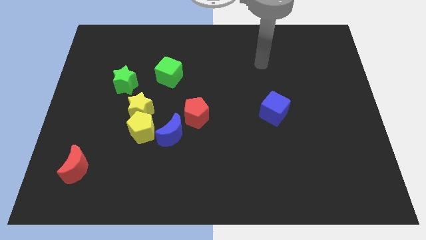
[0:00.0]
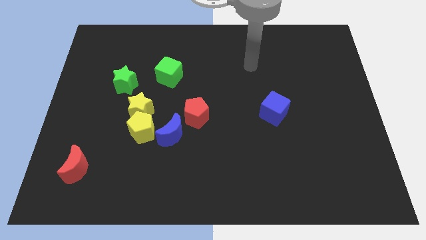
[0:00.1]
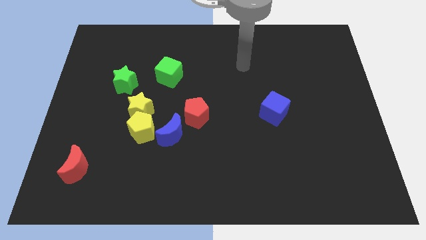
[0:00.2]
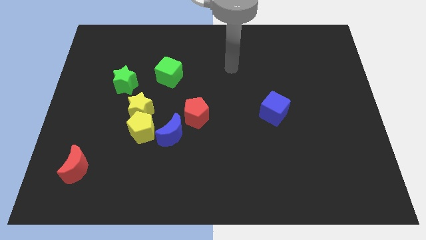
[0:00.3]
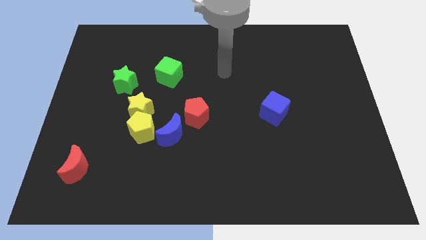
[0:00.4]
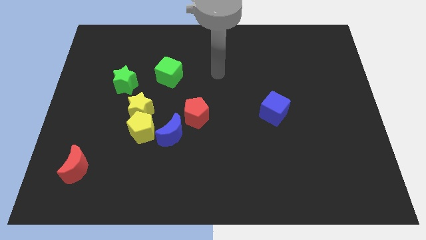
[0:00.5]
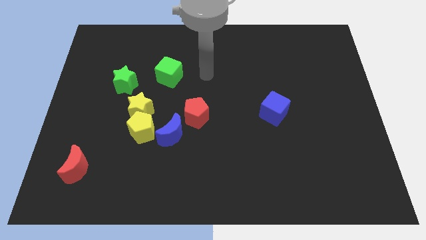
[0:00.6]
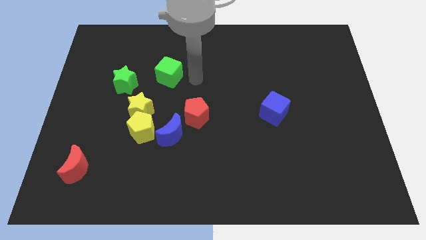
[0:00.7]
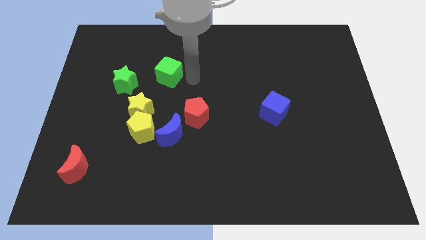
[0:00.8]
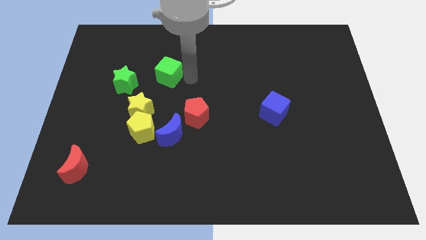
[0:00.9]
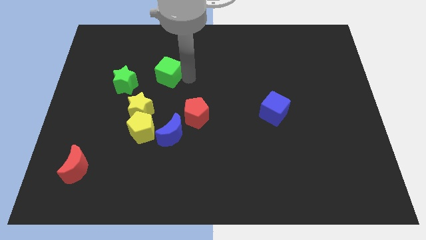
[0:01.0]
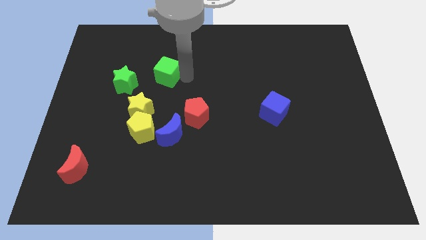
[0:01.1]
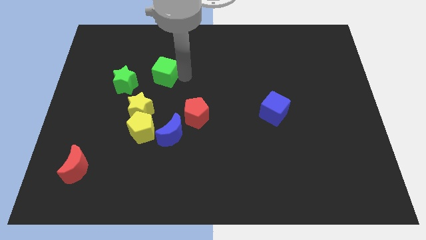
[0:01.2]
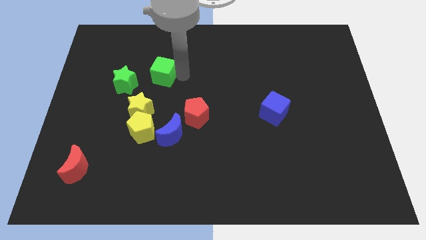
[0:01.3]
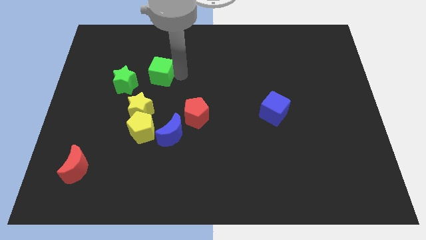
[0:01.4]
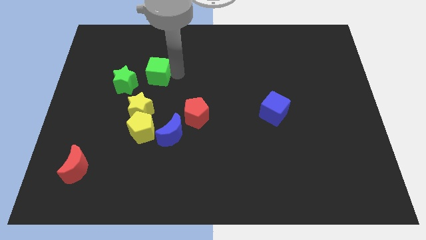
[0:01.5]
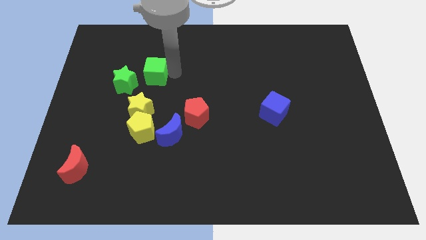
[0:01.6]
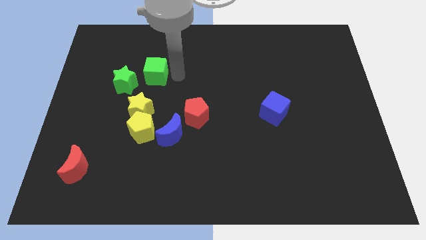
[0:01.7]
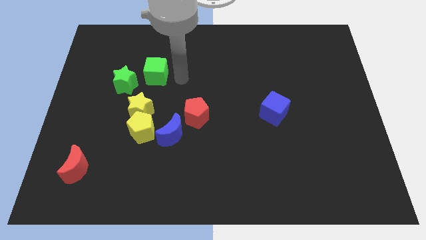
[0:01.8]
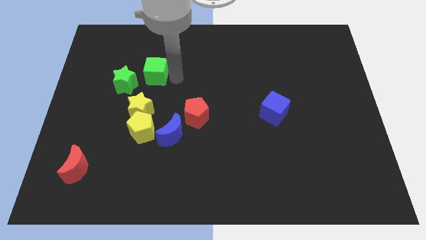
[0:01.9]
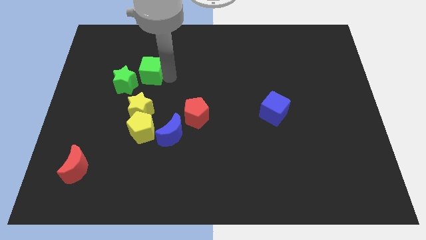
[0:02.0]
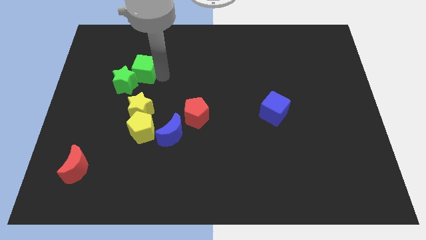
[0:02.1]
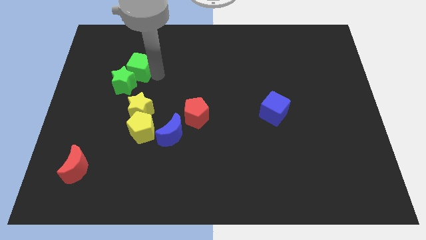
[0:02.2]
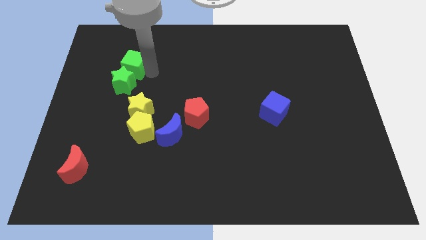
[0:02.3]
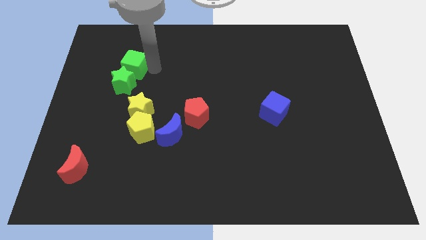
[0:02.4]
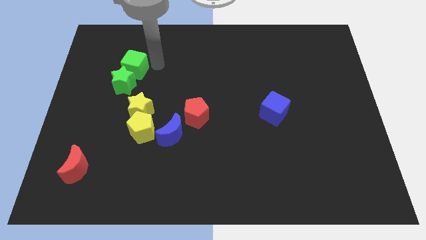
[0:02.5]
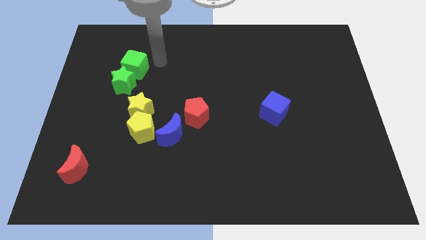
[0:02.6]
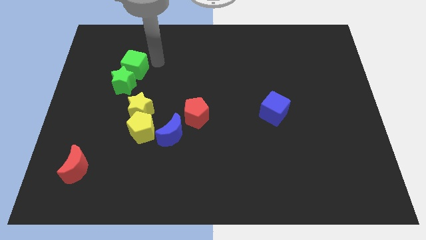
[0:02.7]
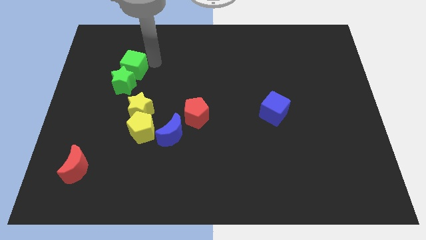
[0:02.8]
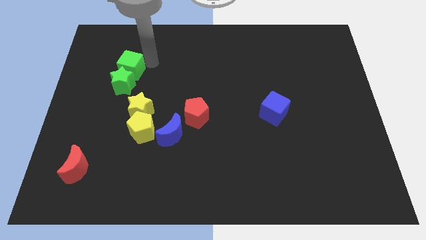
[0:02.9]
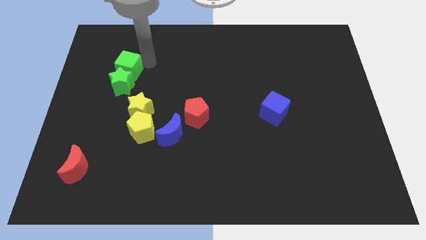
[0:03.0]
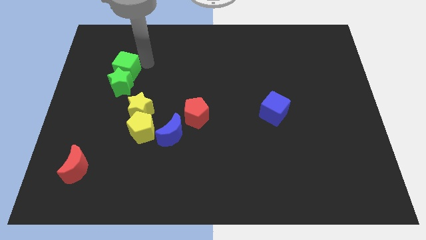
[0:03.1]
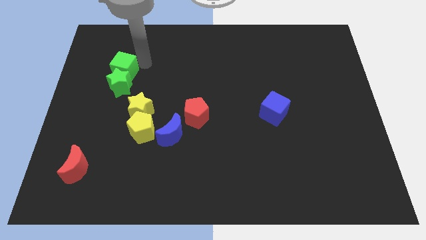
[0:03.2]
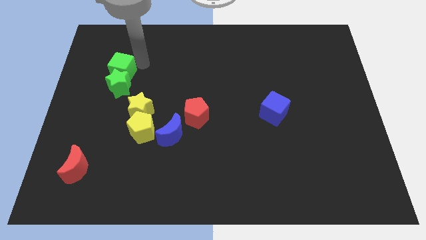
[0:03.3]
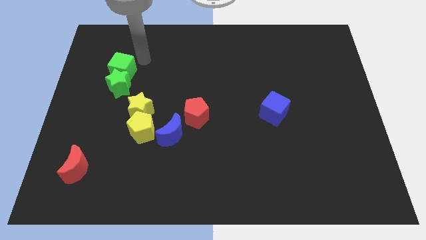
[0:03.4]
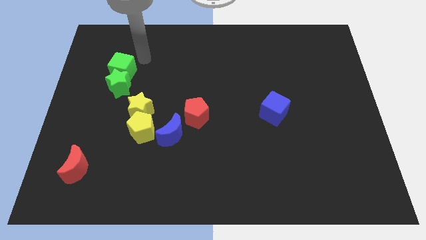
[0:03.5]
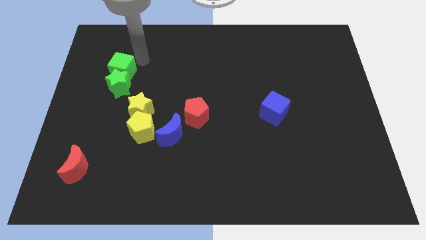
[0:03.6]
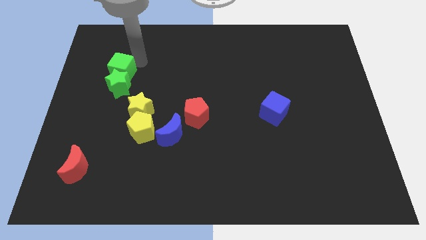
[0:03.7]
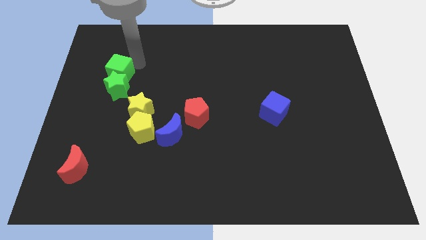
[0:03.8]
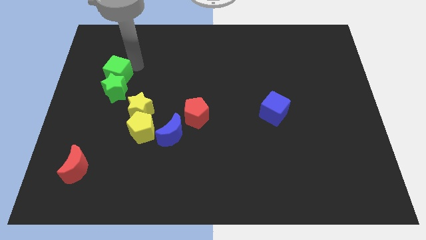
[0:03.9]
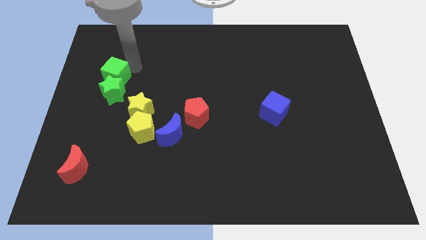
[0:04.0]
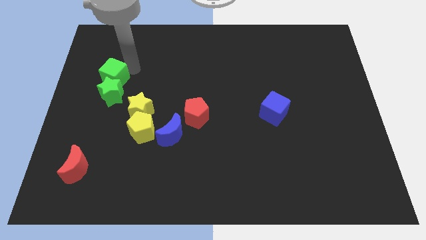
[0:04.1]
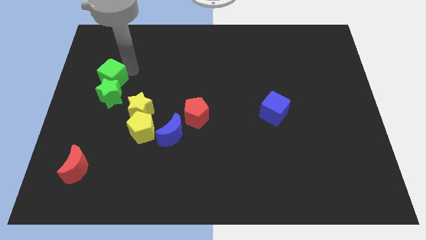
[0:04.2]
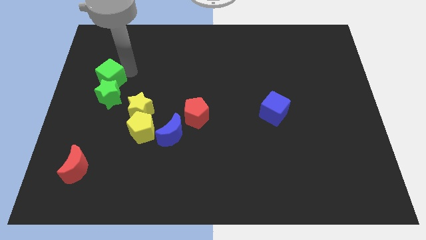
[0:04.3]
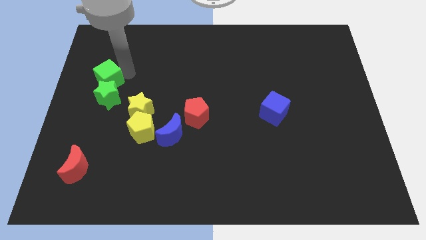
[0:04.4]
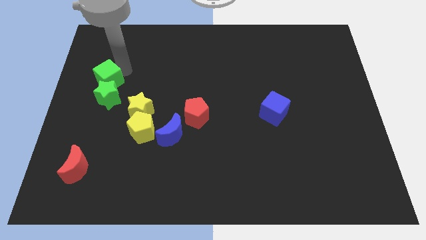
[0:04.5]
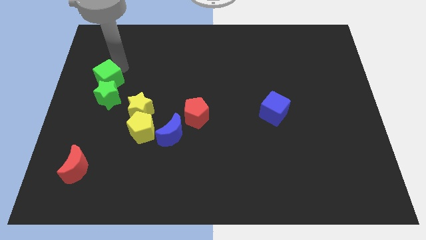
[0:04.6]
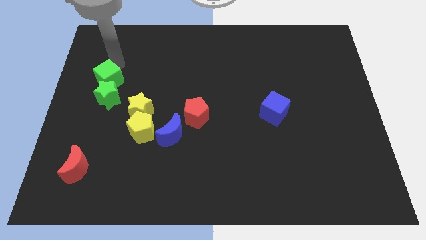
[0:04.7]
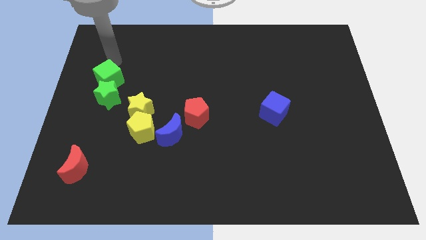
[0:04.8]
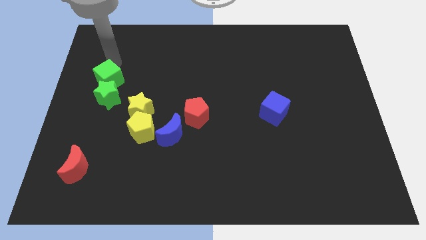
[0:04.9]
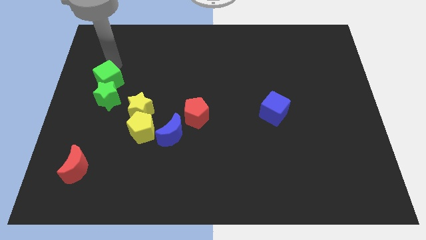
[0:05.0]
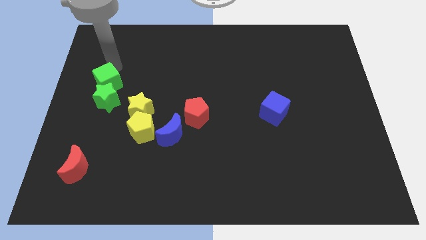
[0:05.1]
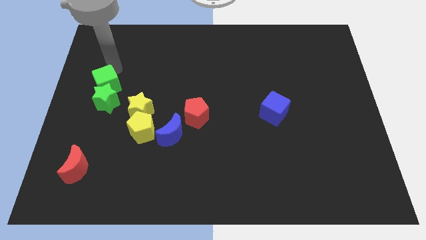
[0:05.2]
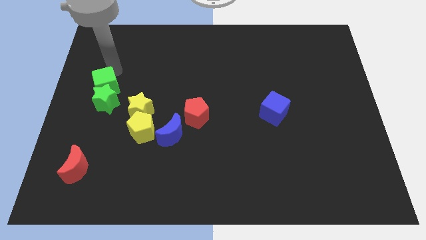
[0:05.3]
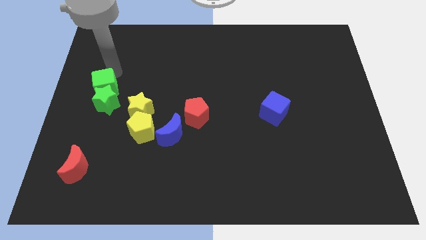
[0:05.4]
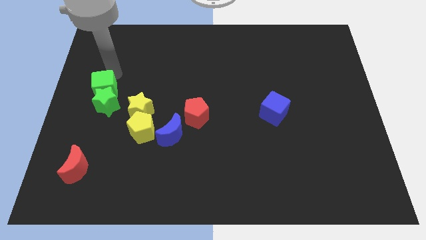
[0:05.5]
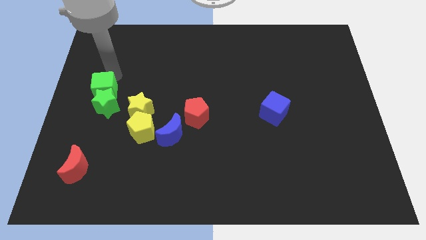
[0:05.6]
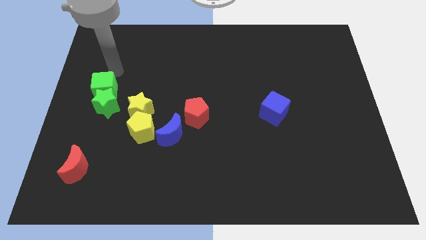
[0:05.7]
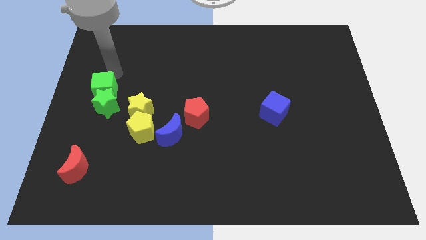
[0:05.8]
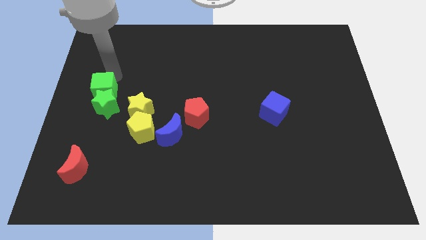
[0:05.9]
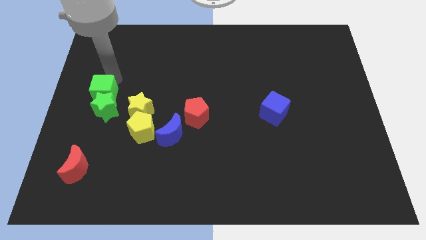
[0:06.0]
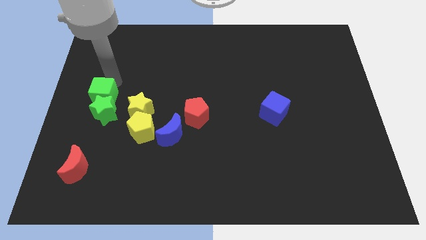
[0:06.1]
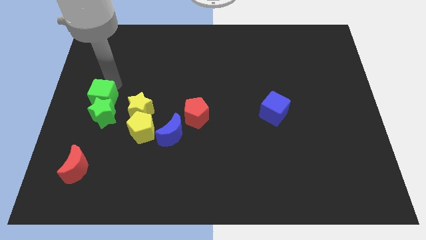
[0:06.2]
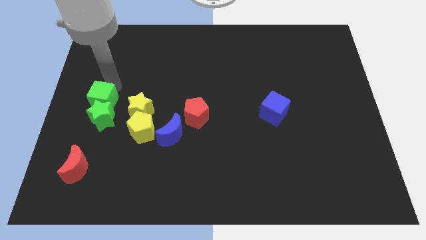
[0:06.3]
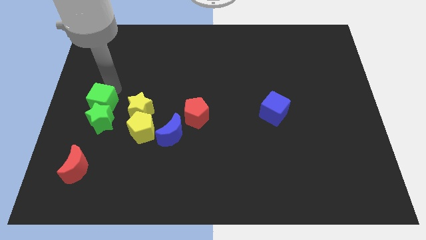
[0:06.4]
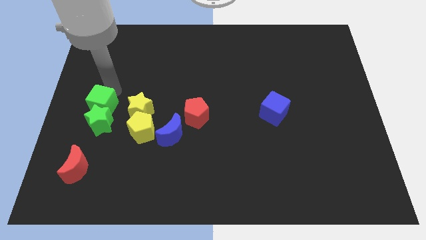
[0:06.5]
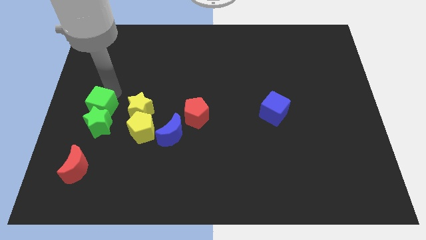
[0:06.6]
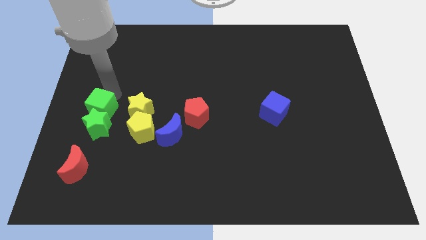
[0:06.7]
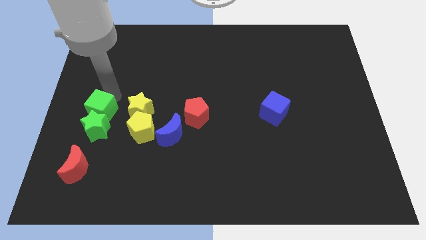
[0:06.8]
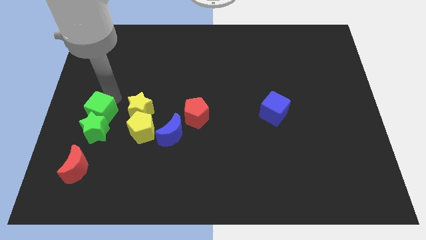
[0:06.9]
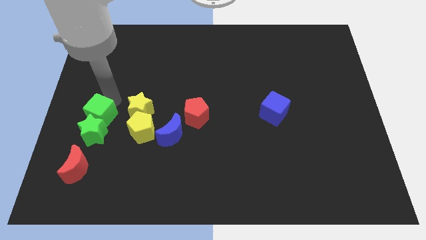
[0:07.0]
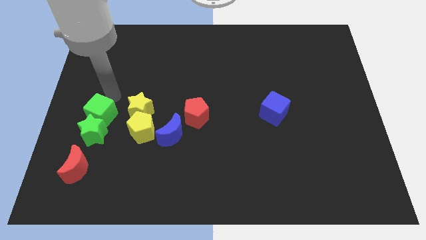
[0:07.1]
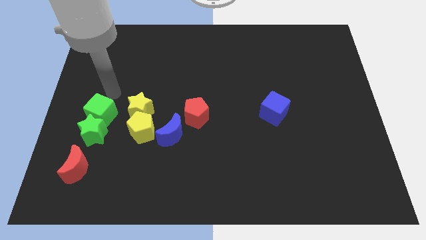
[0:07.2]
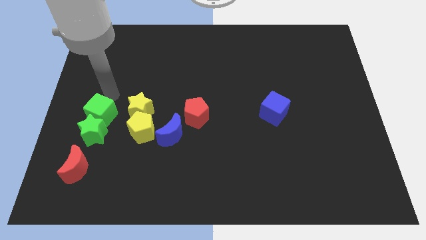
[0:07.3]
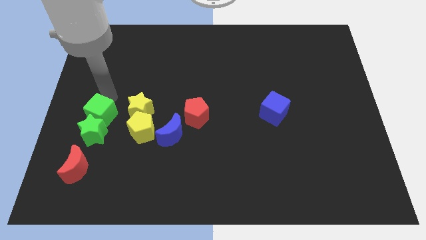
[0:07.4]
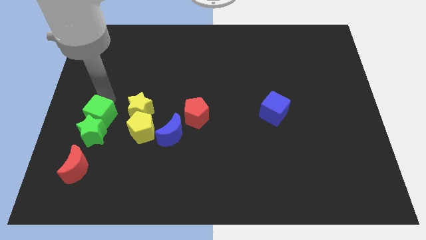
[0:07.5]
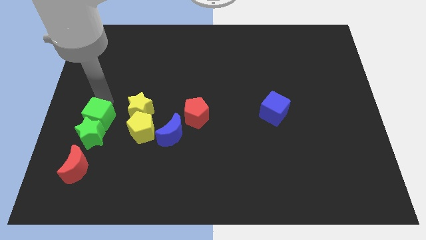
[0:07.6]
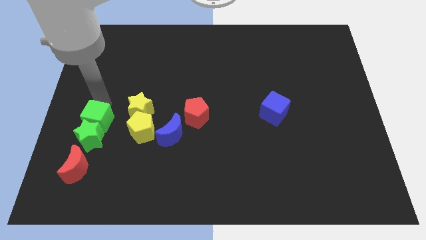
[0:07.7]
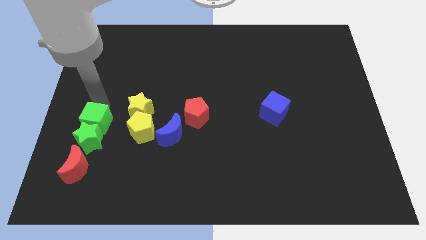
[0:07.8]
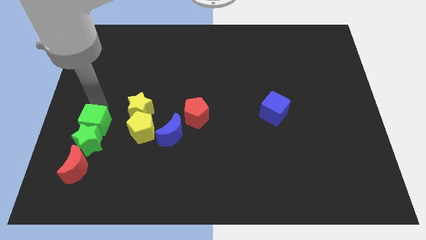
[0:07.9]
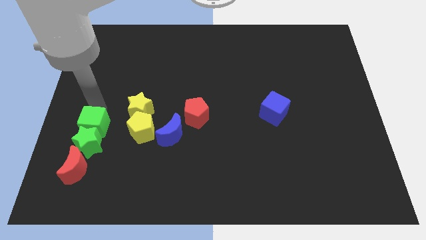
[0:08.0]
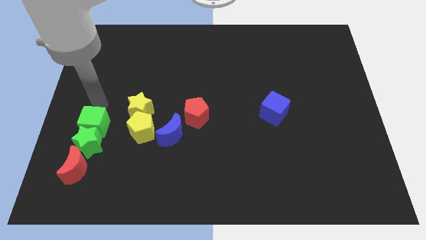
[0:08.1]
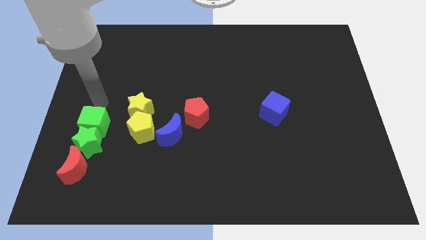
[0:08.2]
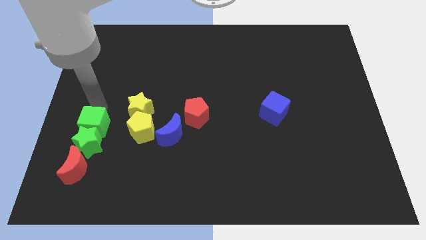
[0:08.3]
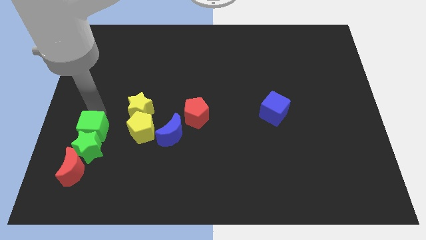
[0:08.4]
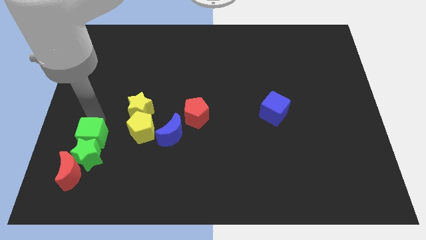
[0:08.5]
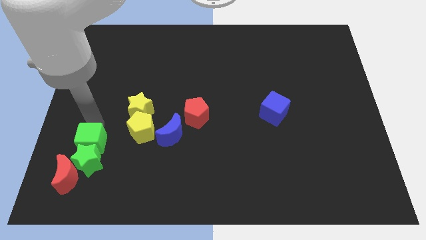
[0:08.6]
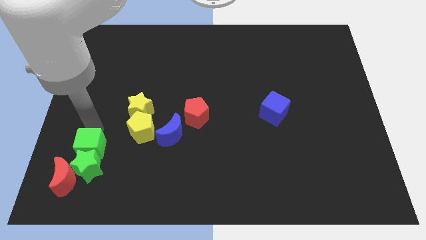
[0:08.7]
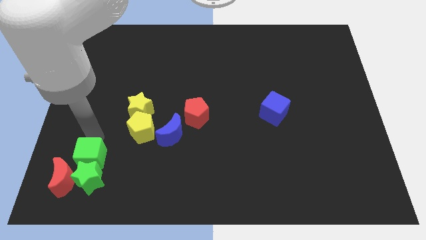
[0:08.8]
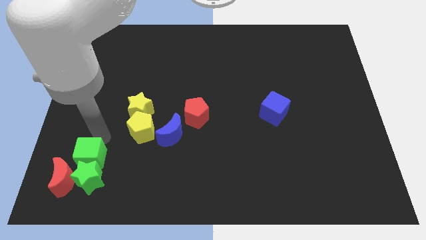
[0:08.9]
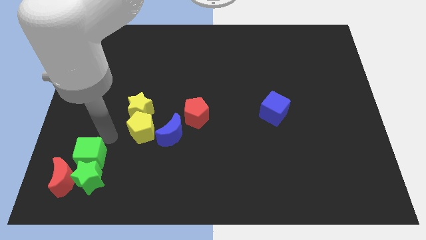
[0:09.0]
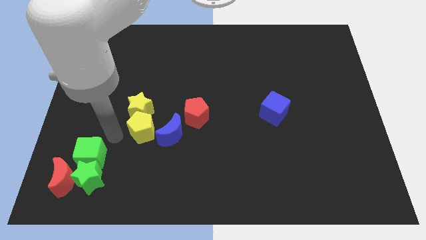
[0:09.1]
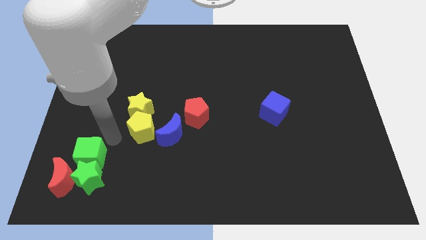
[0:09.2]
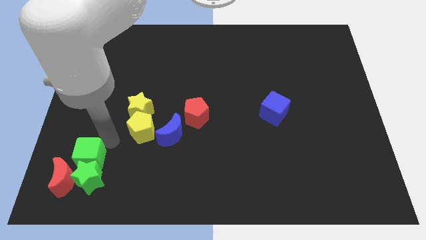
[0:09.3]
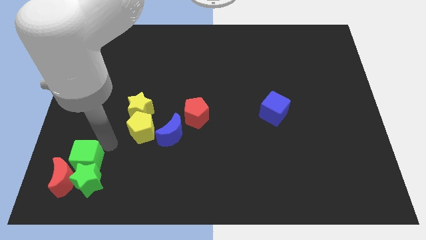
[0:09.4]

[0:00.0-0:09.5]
push the green cube towards the red moon
